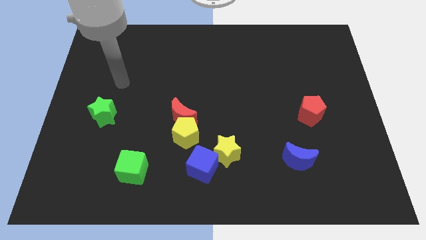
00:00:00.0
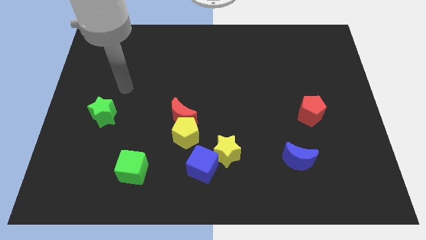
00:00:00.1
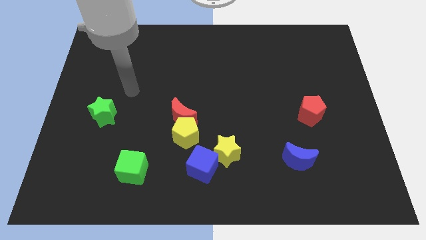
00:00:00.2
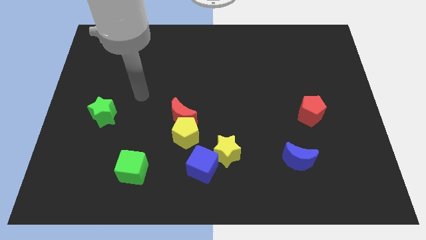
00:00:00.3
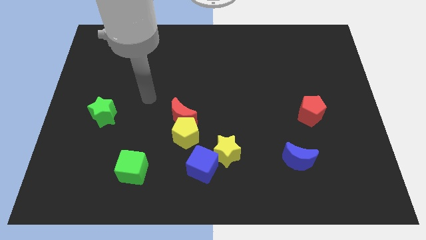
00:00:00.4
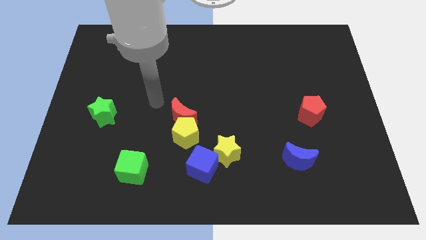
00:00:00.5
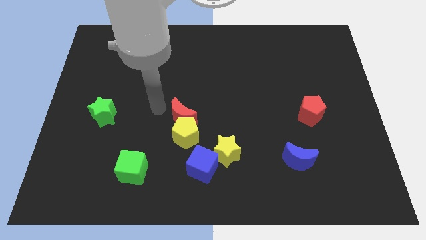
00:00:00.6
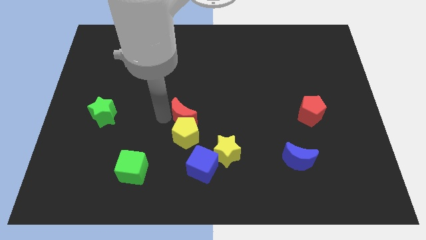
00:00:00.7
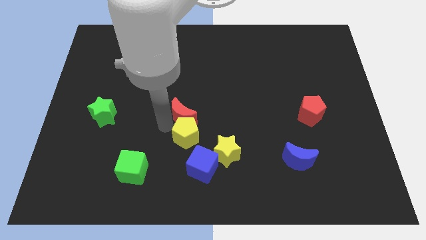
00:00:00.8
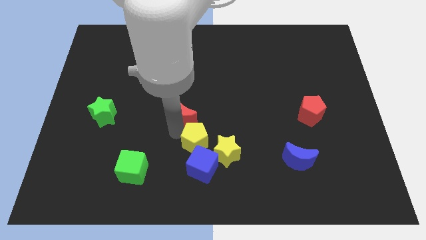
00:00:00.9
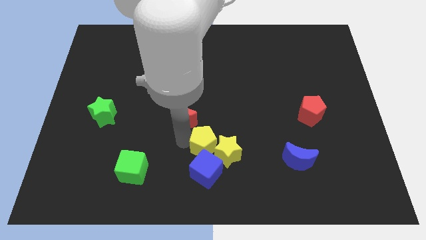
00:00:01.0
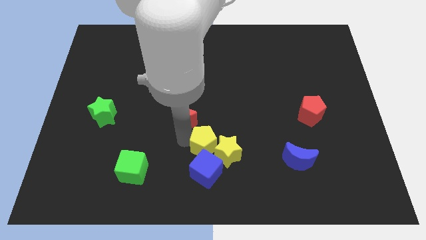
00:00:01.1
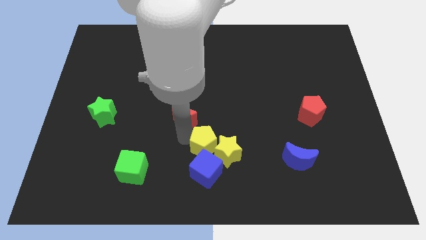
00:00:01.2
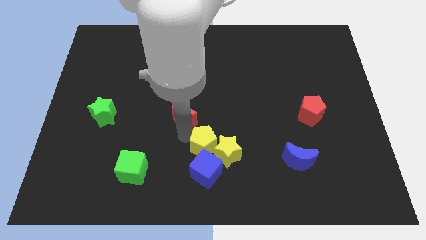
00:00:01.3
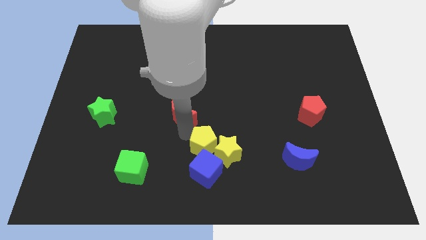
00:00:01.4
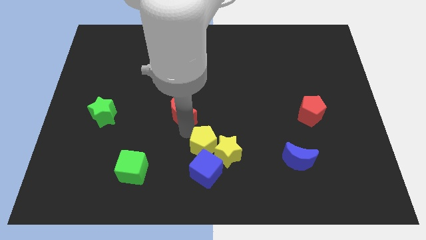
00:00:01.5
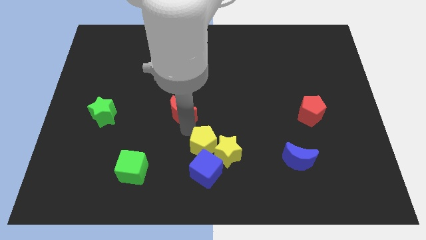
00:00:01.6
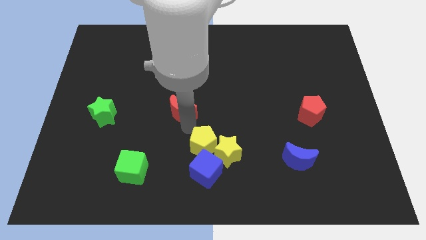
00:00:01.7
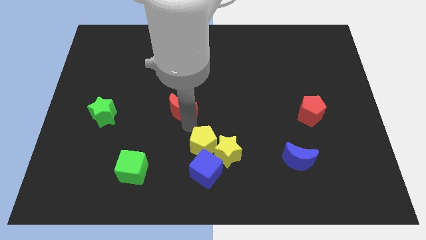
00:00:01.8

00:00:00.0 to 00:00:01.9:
move the red moon away from the yellow pentagon

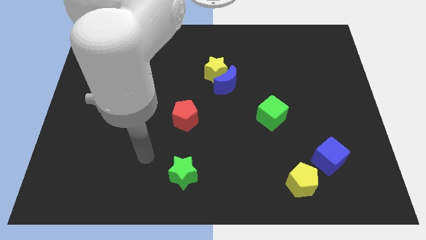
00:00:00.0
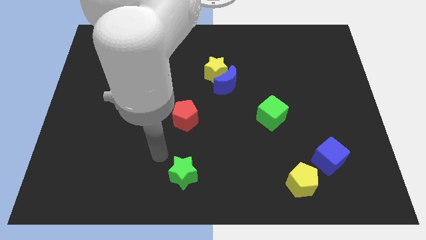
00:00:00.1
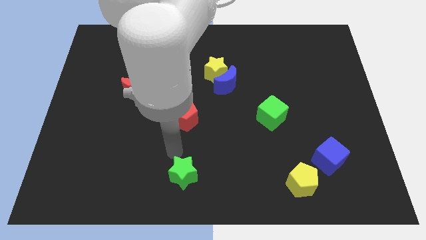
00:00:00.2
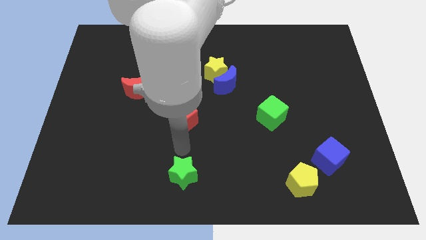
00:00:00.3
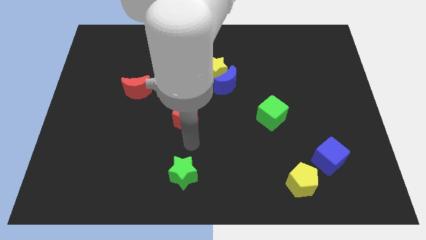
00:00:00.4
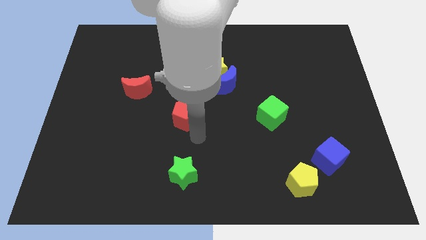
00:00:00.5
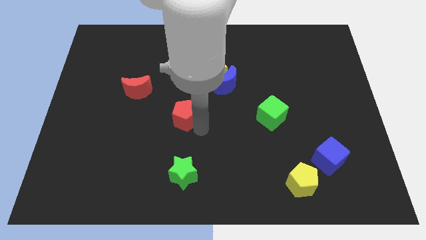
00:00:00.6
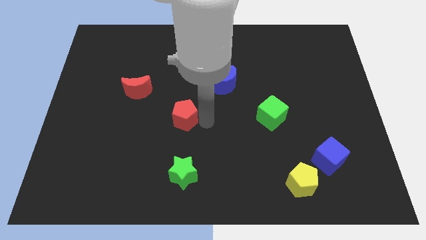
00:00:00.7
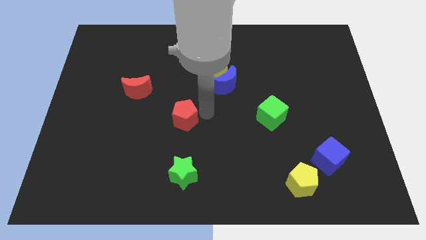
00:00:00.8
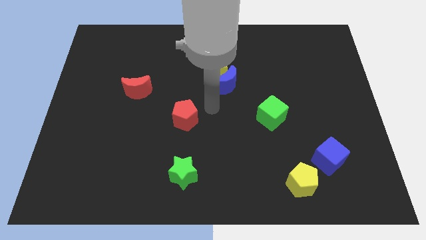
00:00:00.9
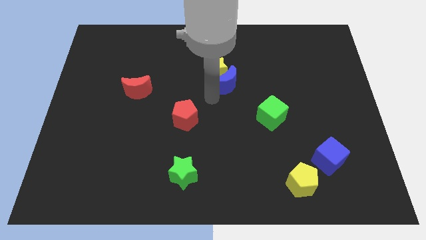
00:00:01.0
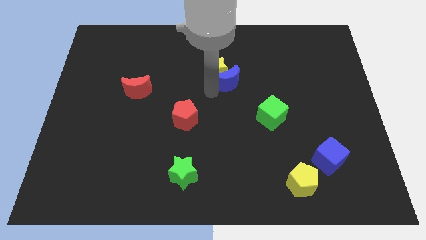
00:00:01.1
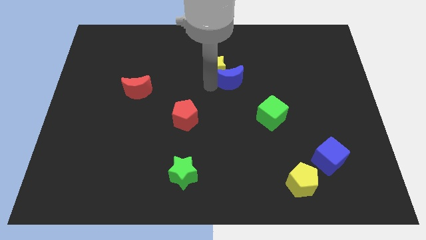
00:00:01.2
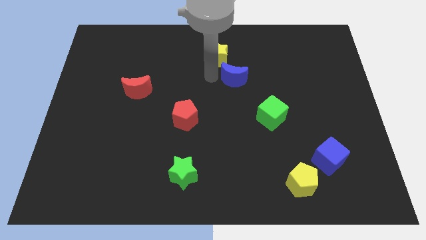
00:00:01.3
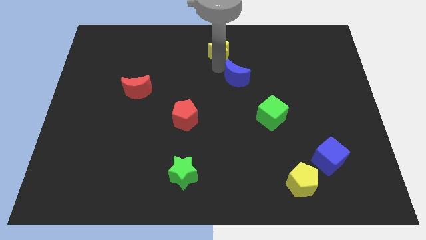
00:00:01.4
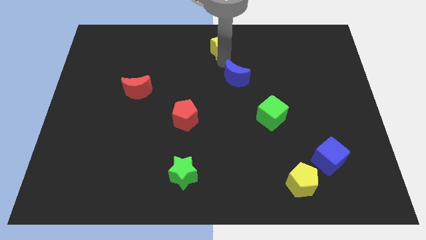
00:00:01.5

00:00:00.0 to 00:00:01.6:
pull the blue moon apart from the yellow star

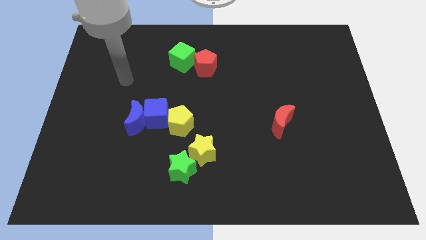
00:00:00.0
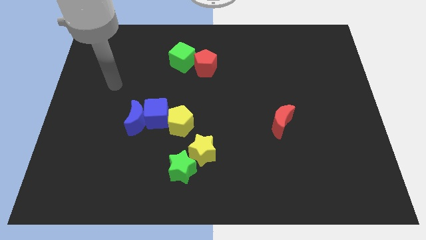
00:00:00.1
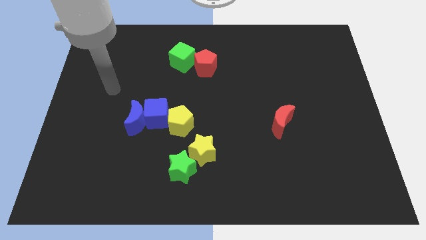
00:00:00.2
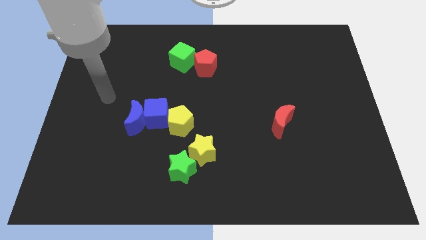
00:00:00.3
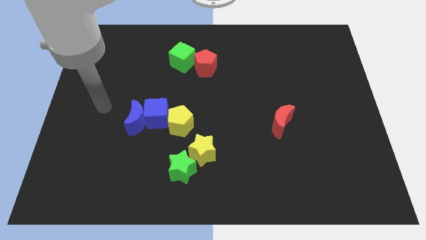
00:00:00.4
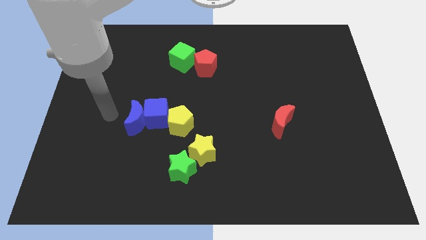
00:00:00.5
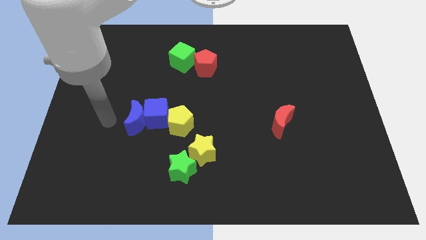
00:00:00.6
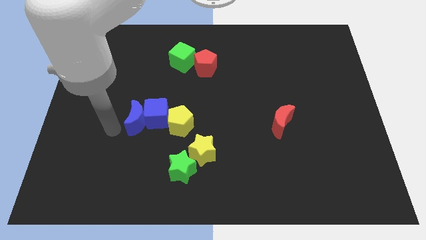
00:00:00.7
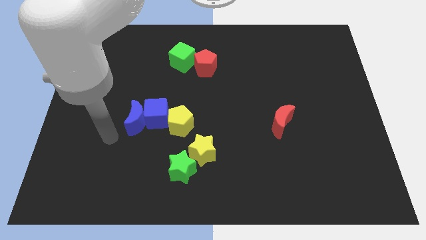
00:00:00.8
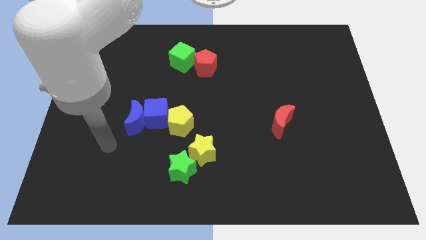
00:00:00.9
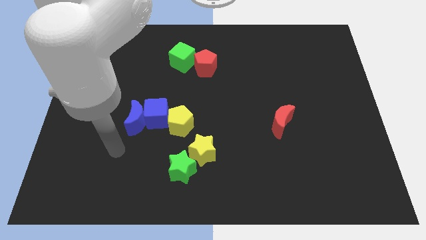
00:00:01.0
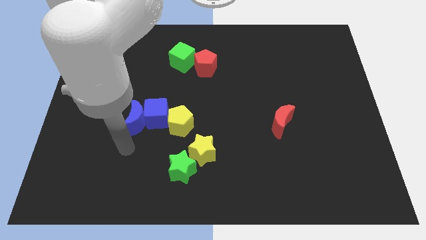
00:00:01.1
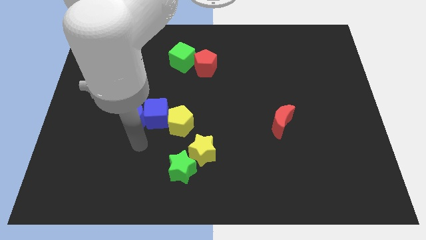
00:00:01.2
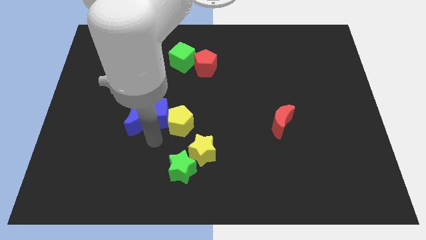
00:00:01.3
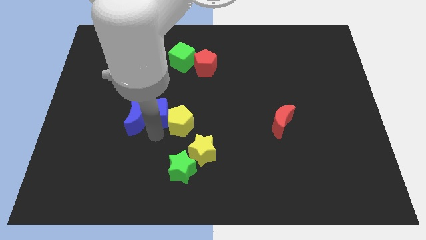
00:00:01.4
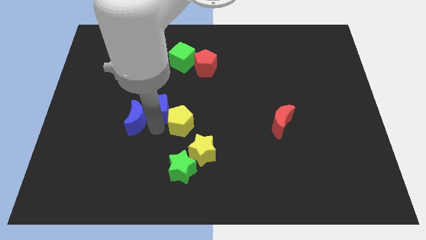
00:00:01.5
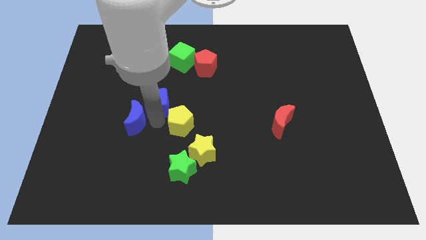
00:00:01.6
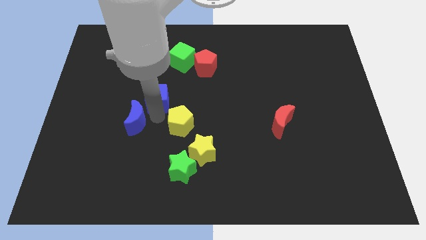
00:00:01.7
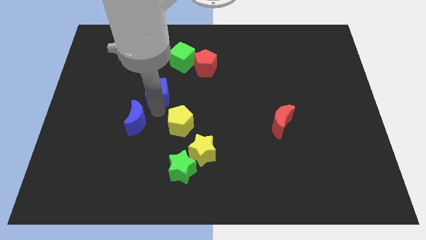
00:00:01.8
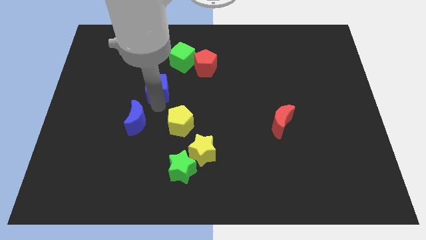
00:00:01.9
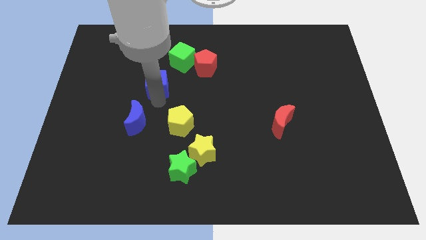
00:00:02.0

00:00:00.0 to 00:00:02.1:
separate the blue cube from the blue moon and yellow pentagon

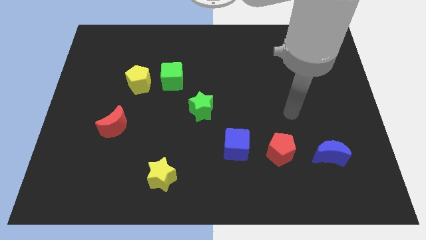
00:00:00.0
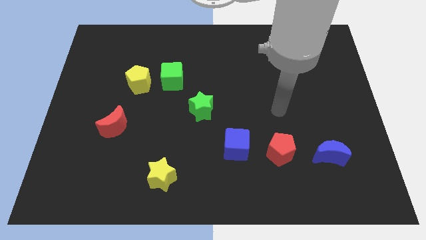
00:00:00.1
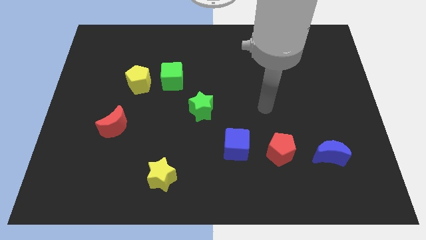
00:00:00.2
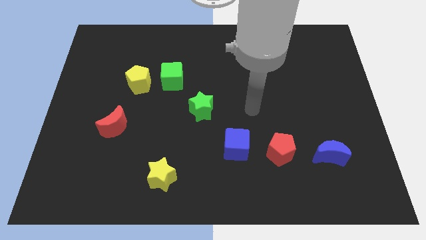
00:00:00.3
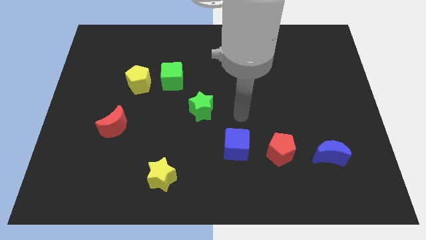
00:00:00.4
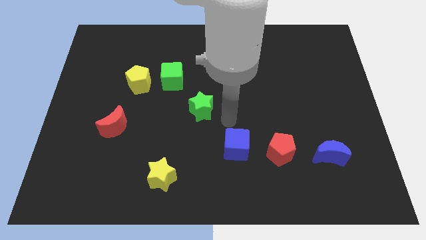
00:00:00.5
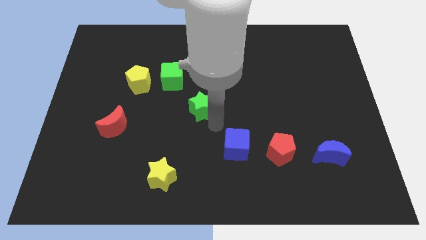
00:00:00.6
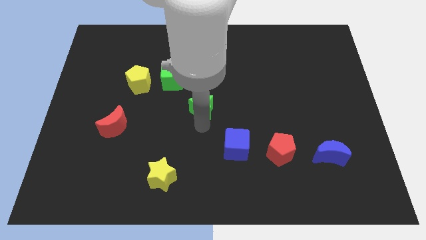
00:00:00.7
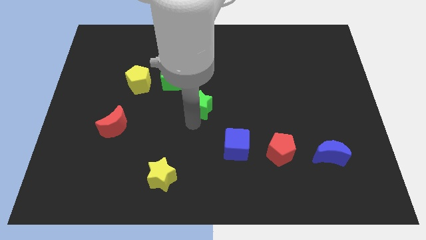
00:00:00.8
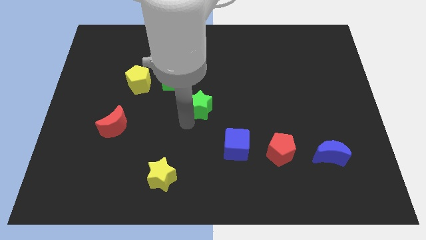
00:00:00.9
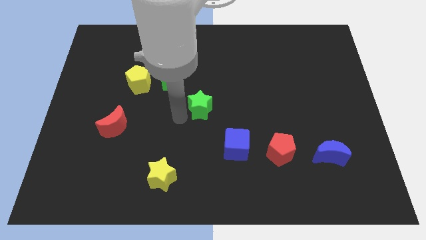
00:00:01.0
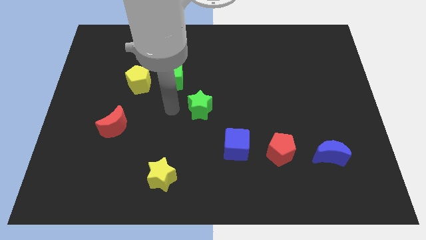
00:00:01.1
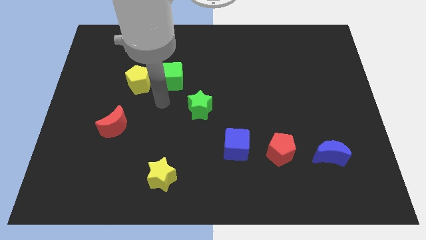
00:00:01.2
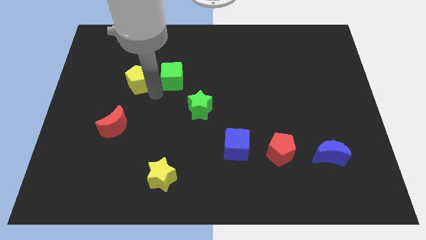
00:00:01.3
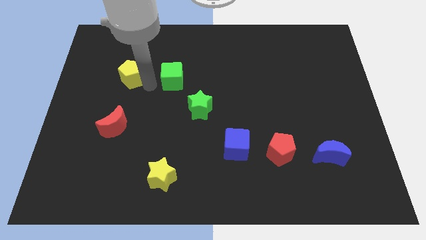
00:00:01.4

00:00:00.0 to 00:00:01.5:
separate the green cube from the yellow pentagon

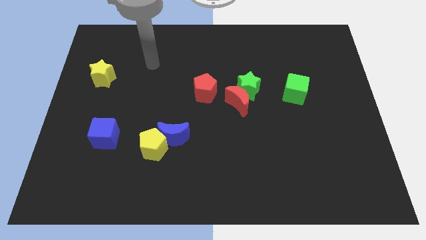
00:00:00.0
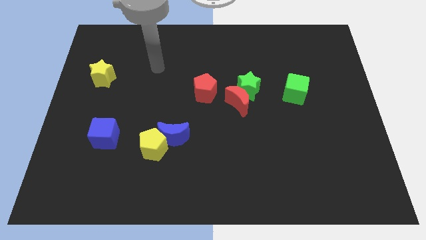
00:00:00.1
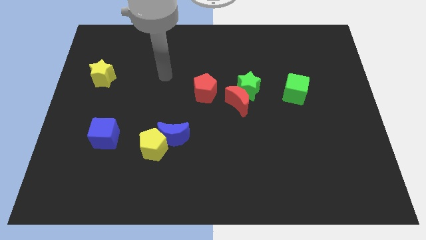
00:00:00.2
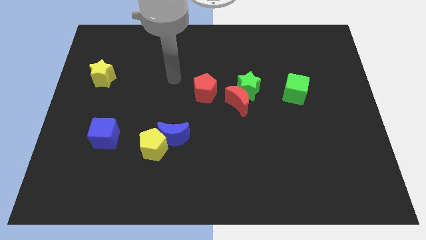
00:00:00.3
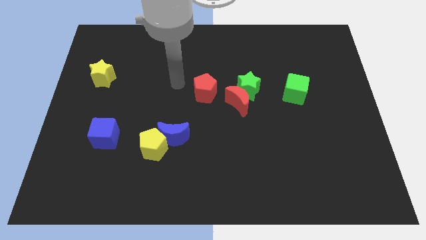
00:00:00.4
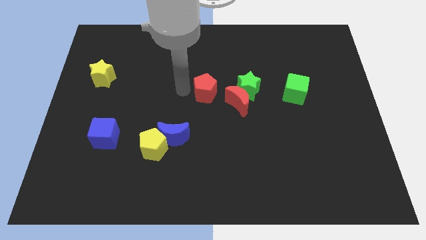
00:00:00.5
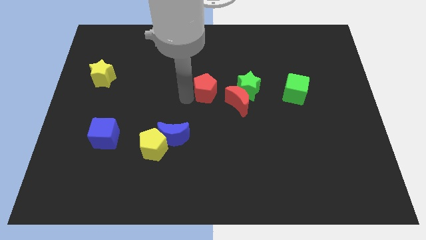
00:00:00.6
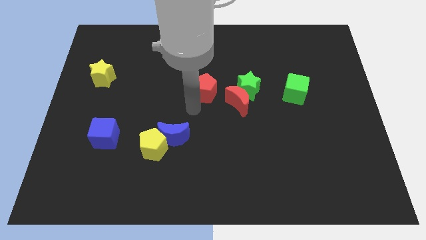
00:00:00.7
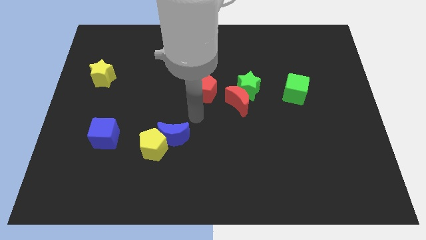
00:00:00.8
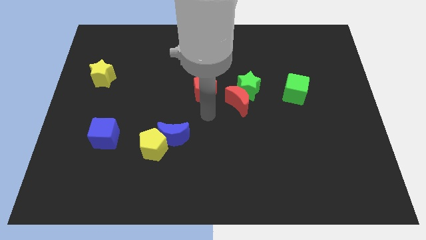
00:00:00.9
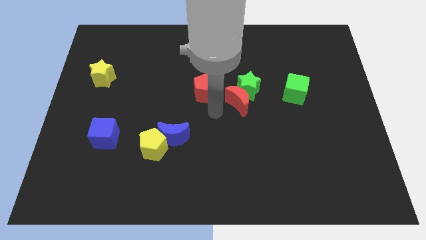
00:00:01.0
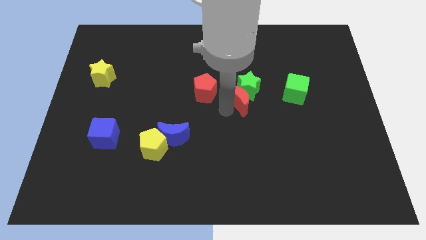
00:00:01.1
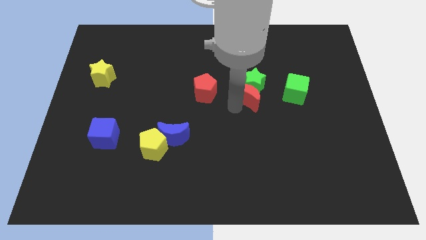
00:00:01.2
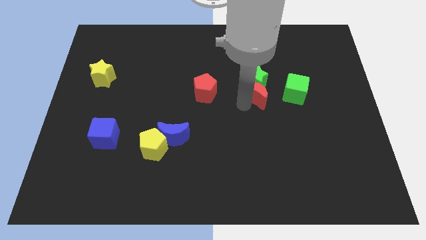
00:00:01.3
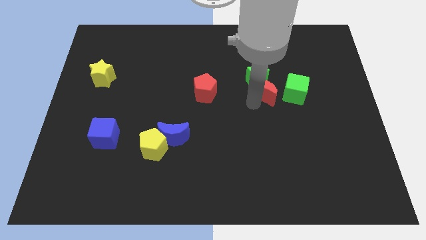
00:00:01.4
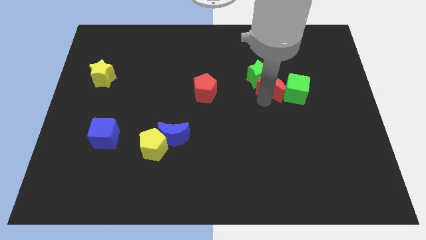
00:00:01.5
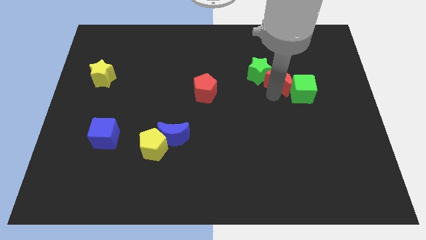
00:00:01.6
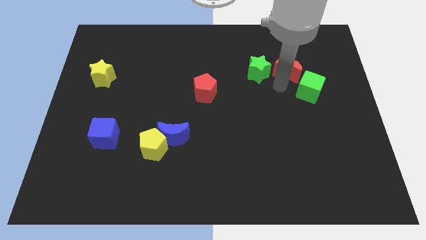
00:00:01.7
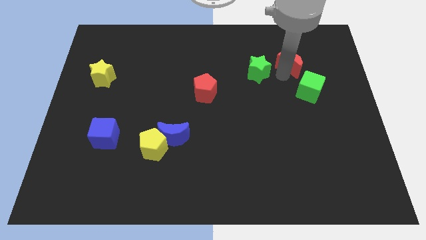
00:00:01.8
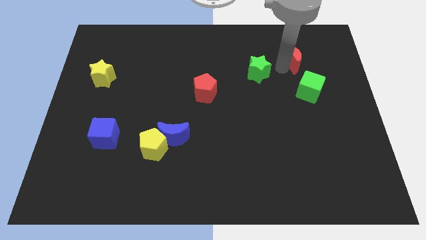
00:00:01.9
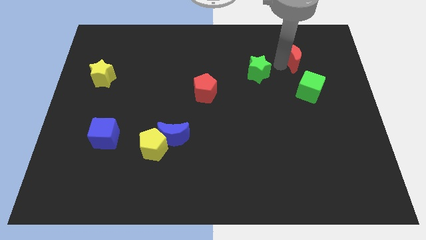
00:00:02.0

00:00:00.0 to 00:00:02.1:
pull the green star apart from the red moon

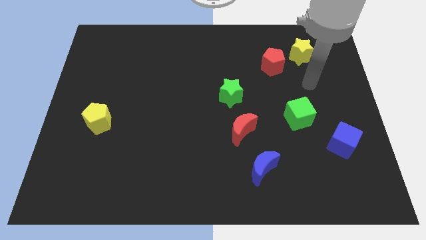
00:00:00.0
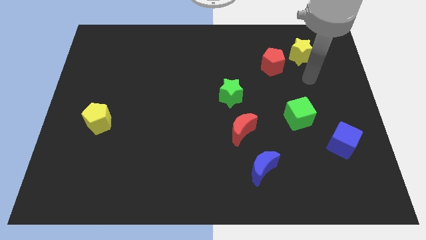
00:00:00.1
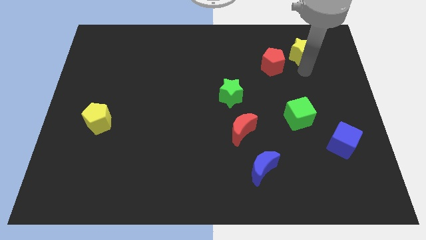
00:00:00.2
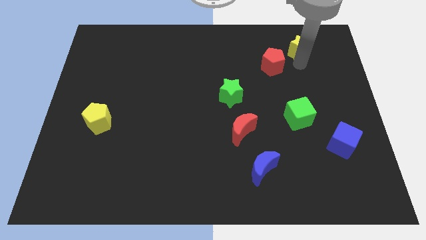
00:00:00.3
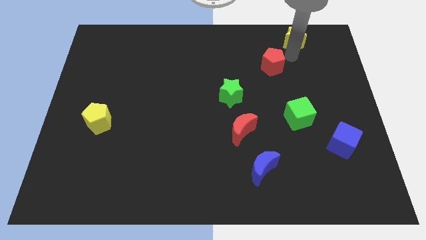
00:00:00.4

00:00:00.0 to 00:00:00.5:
separate the red pentagon from the yellow star
